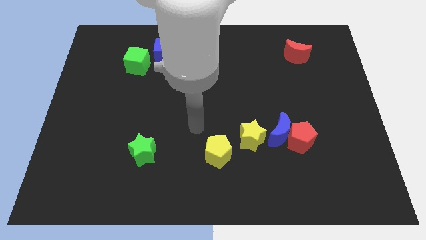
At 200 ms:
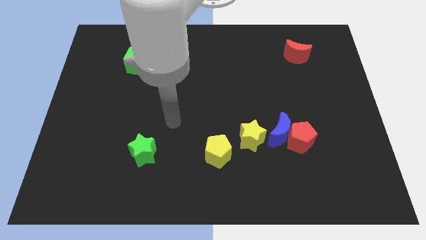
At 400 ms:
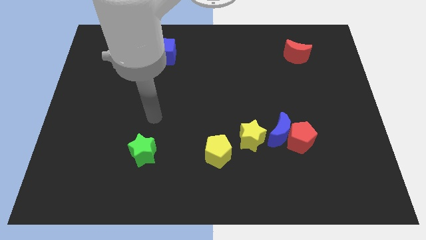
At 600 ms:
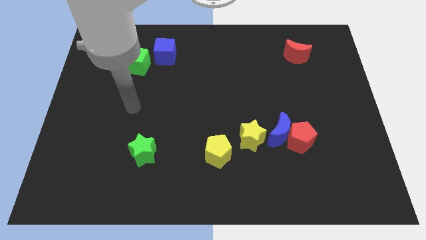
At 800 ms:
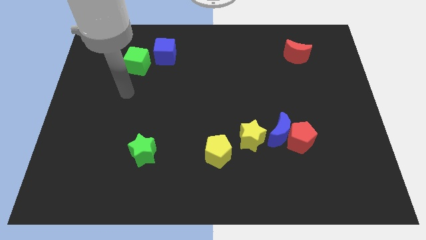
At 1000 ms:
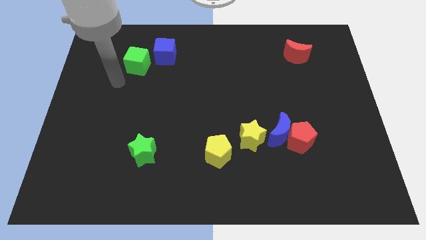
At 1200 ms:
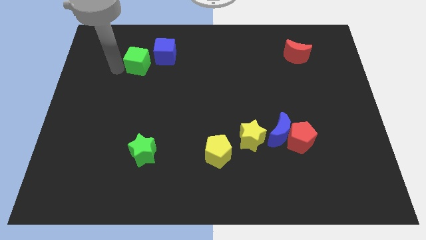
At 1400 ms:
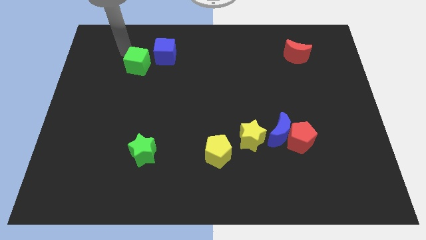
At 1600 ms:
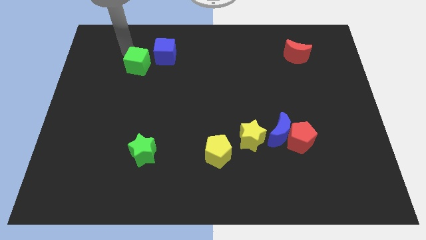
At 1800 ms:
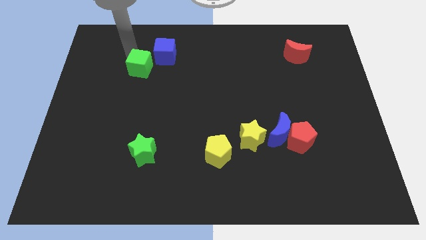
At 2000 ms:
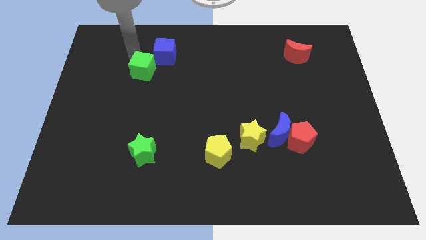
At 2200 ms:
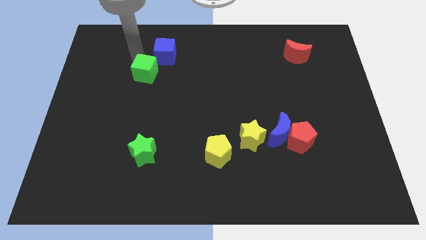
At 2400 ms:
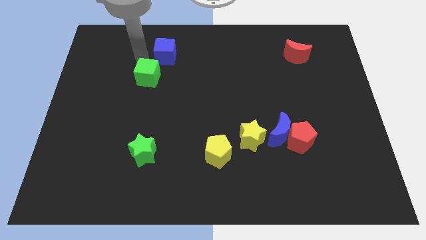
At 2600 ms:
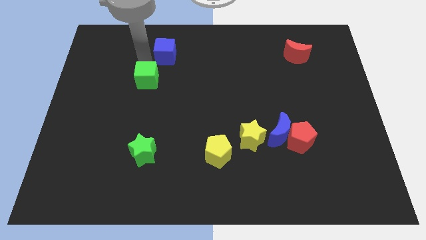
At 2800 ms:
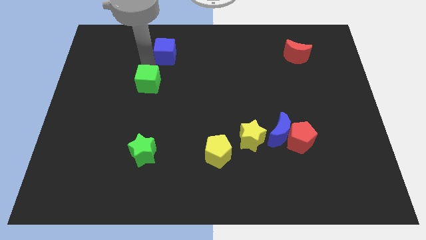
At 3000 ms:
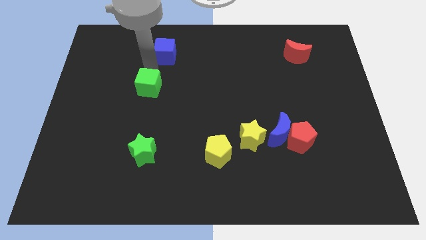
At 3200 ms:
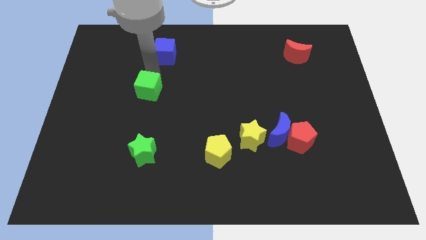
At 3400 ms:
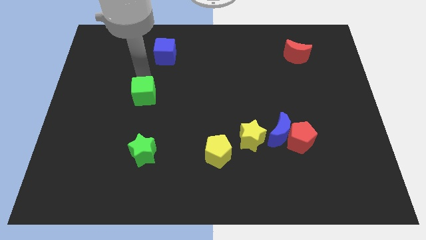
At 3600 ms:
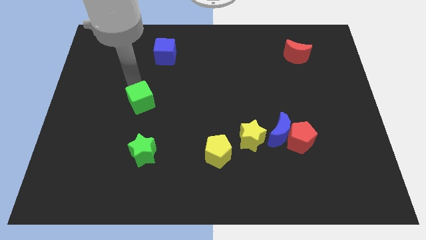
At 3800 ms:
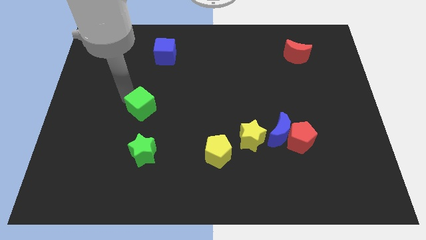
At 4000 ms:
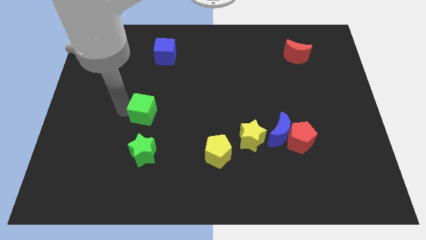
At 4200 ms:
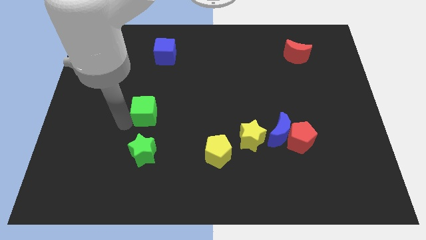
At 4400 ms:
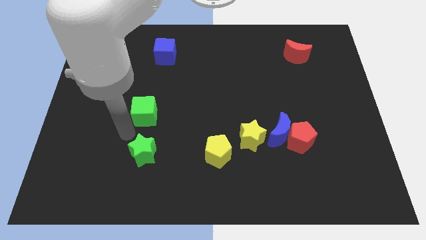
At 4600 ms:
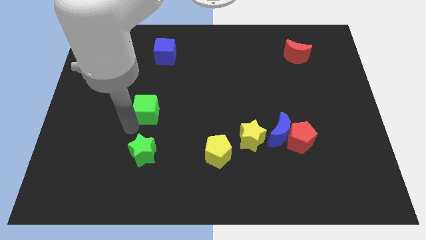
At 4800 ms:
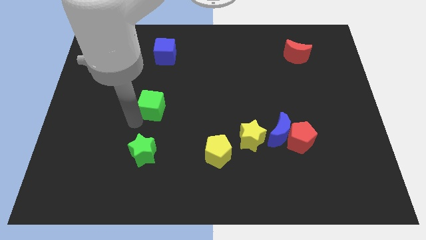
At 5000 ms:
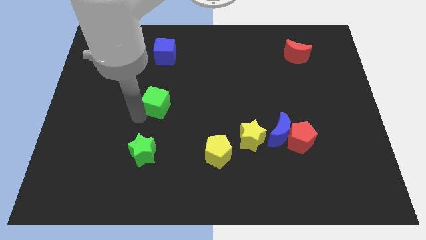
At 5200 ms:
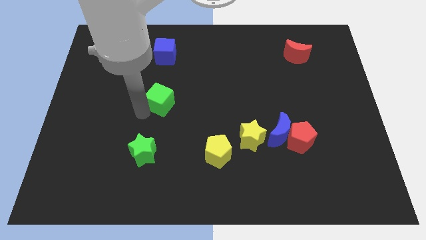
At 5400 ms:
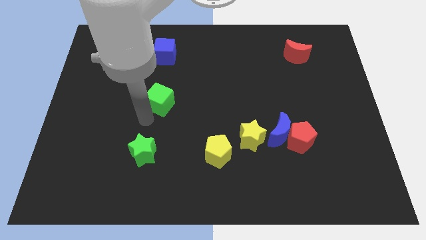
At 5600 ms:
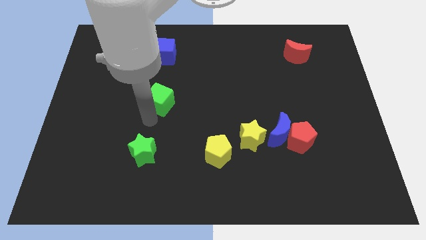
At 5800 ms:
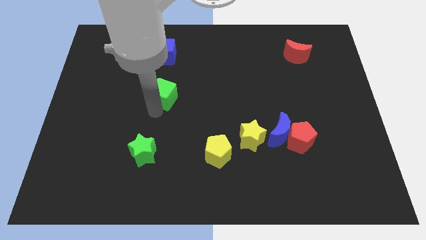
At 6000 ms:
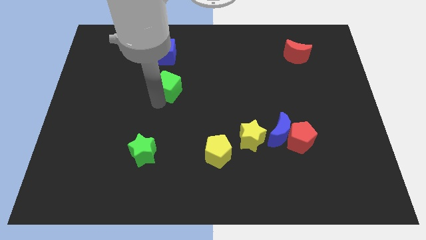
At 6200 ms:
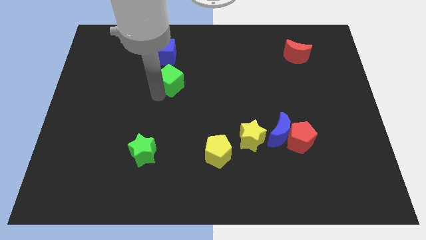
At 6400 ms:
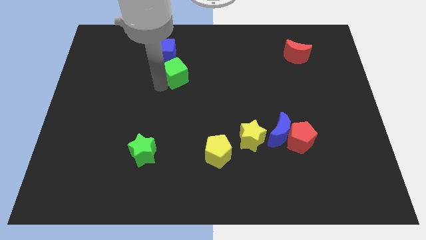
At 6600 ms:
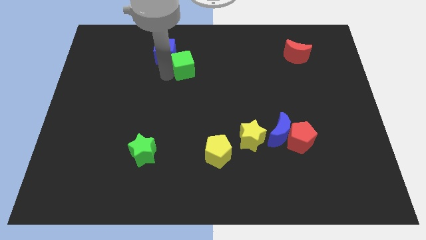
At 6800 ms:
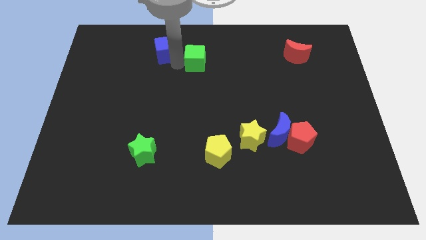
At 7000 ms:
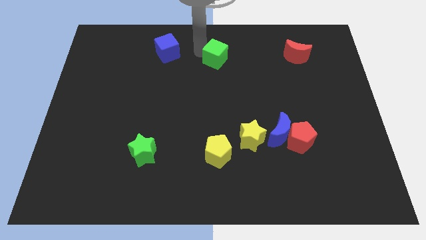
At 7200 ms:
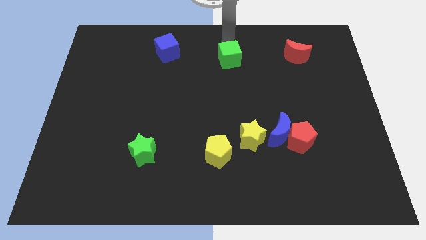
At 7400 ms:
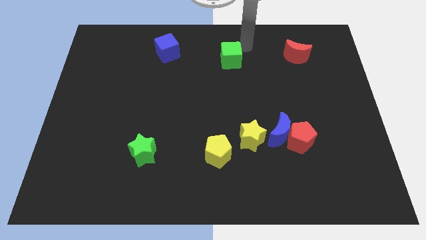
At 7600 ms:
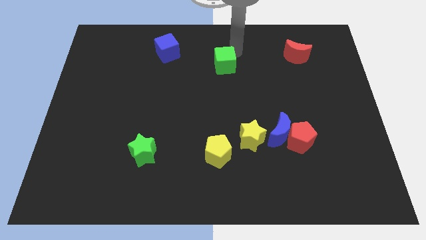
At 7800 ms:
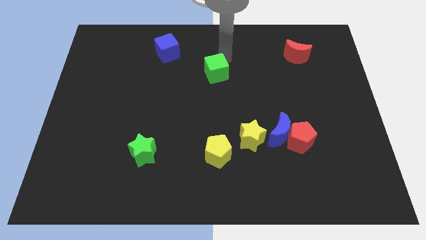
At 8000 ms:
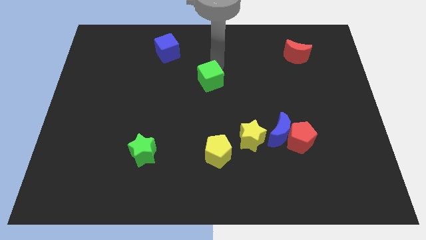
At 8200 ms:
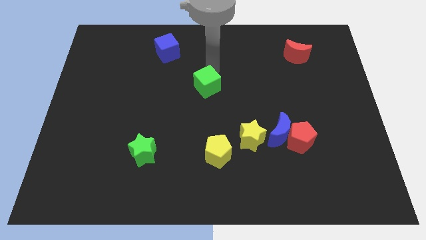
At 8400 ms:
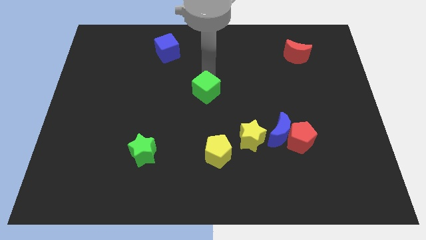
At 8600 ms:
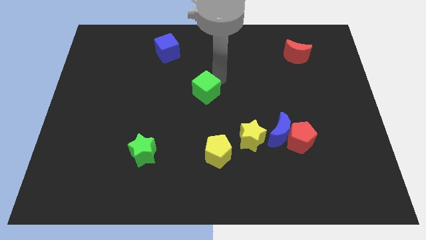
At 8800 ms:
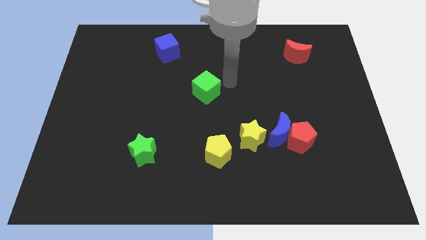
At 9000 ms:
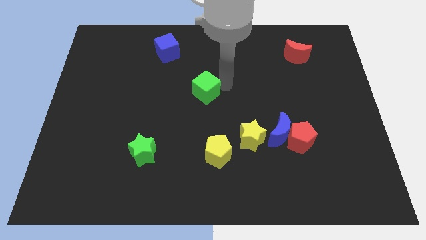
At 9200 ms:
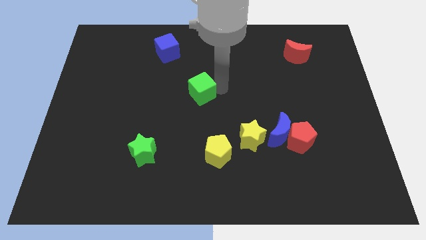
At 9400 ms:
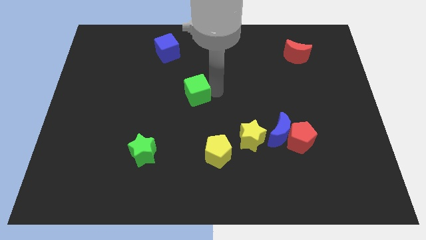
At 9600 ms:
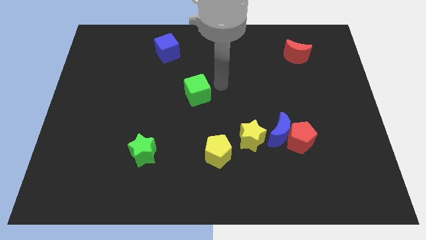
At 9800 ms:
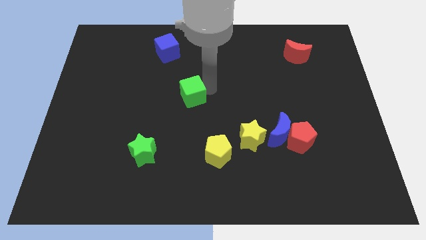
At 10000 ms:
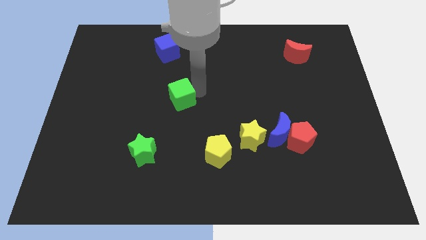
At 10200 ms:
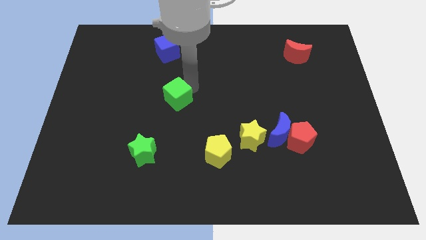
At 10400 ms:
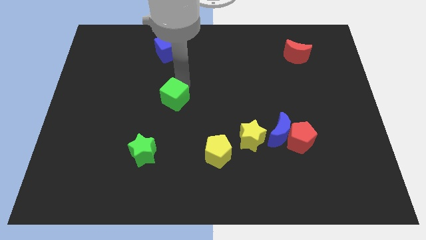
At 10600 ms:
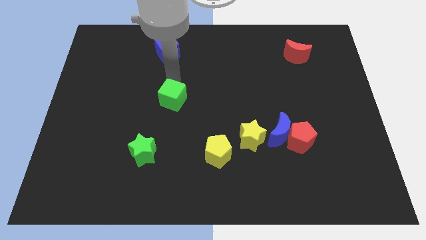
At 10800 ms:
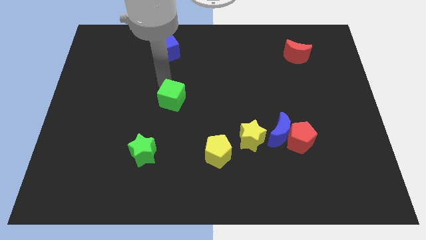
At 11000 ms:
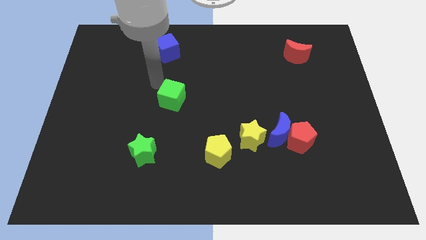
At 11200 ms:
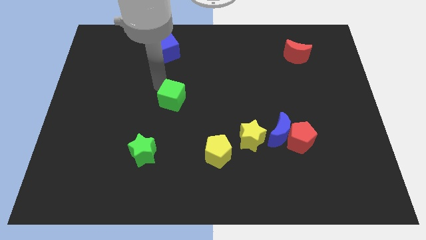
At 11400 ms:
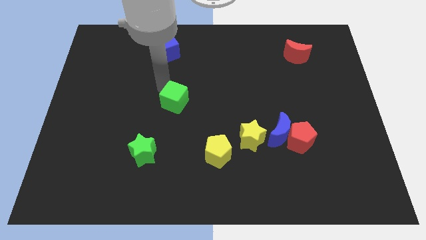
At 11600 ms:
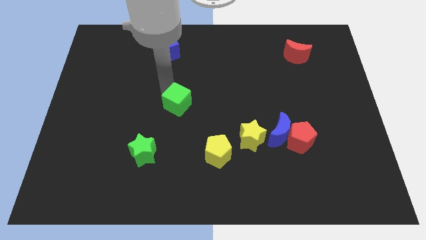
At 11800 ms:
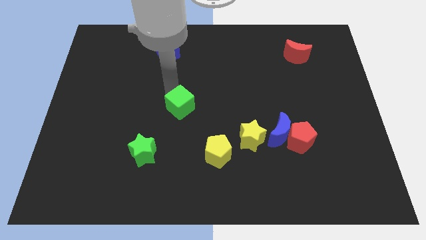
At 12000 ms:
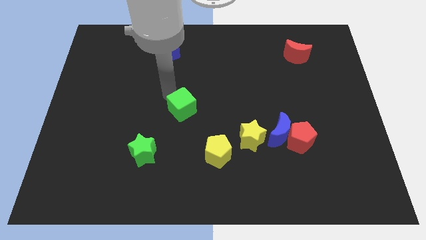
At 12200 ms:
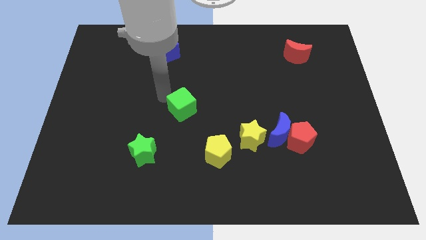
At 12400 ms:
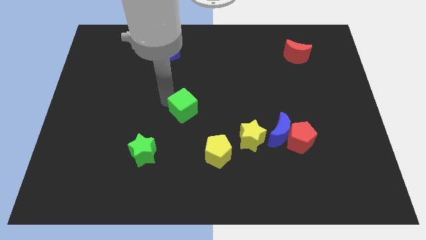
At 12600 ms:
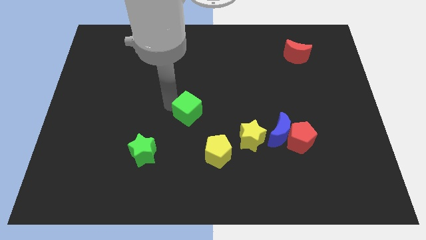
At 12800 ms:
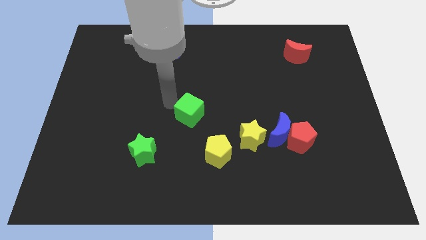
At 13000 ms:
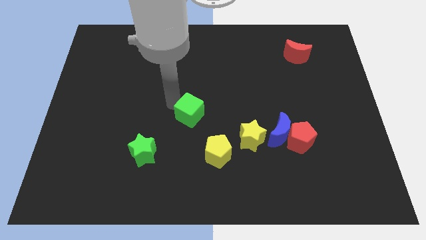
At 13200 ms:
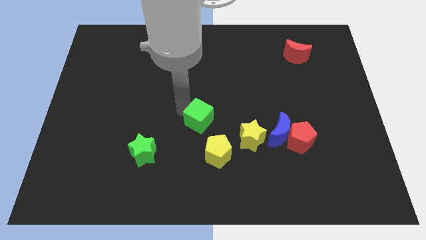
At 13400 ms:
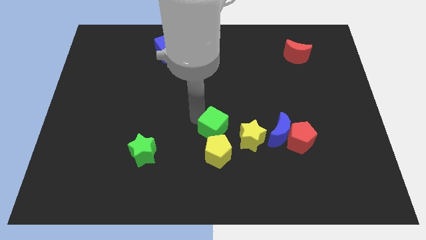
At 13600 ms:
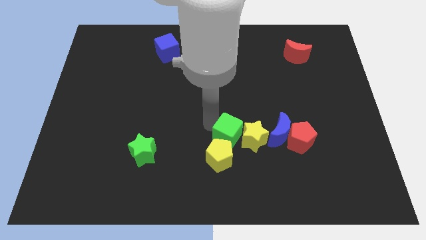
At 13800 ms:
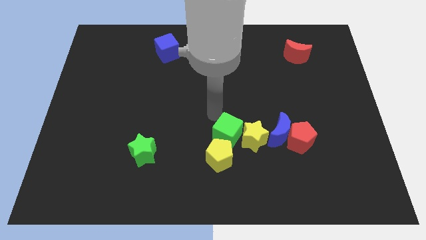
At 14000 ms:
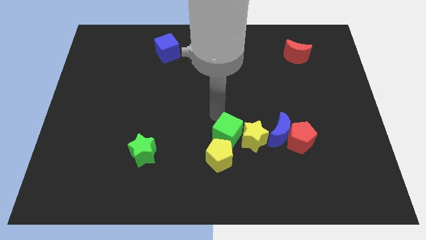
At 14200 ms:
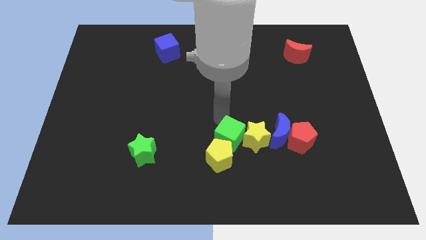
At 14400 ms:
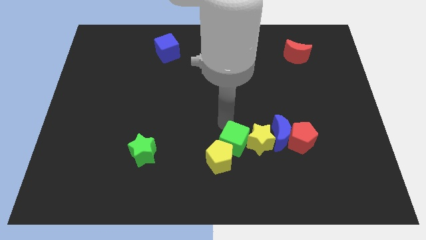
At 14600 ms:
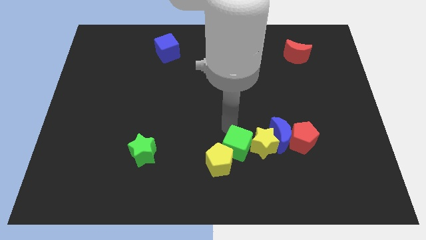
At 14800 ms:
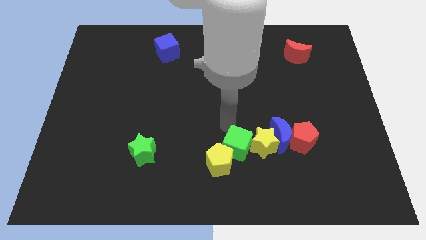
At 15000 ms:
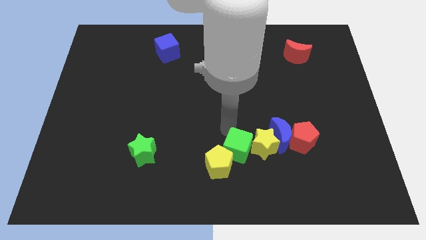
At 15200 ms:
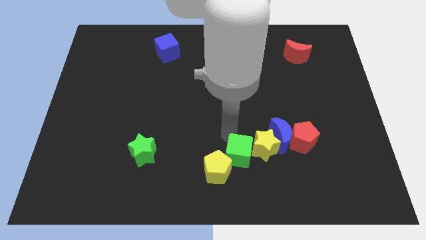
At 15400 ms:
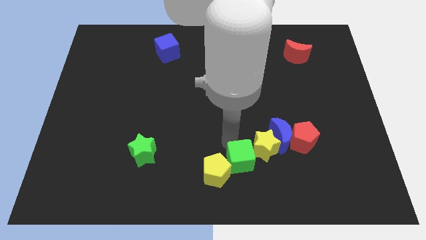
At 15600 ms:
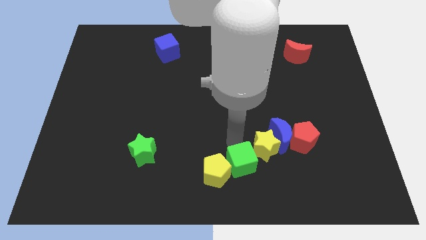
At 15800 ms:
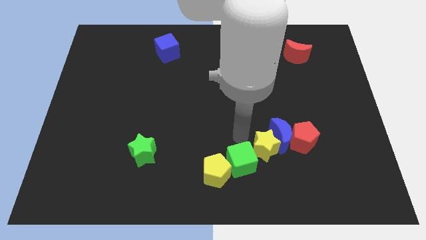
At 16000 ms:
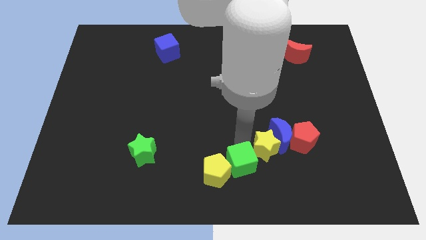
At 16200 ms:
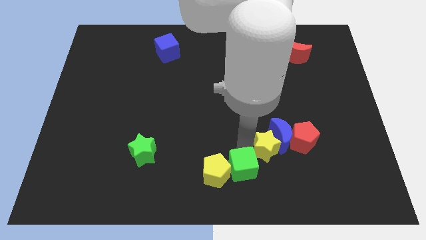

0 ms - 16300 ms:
put the green cube diagonally down and to the right of the yellow pentagon
